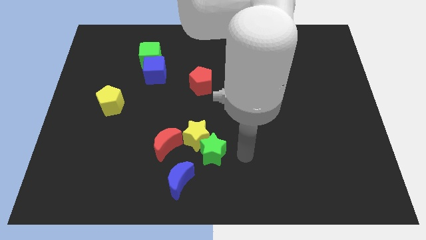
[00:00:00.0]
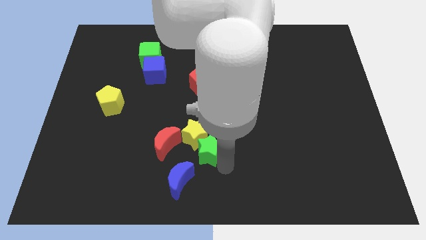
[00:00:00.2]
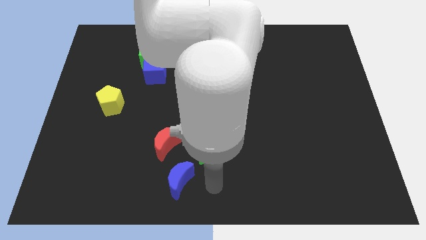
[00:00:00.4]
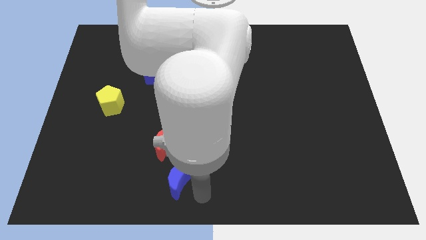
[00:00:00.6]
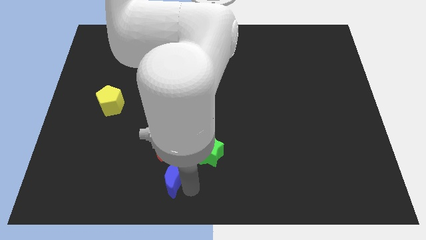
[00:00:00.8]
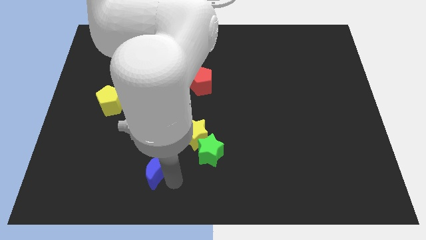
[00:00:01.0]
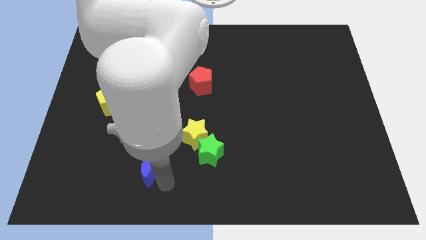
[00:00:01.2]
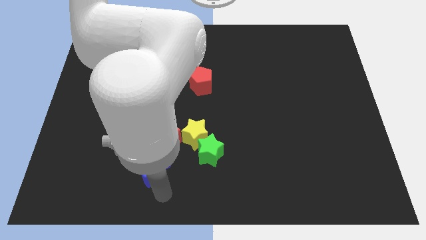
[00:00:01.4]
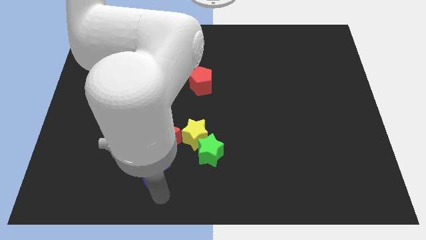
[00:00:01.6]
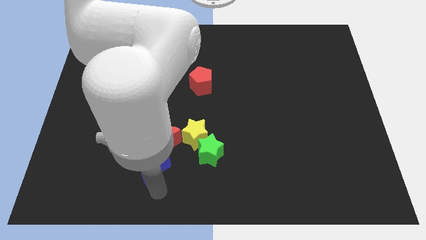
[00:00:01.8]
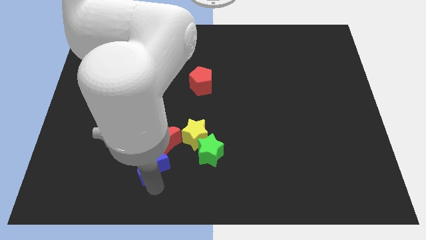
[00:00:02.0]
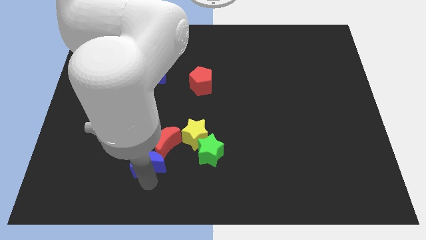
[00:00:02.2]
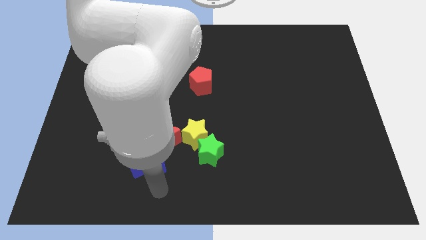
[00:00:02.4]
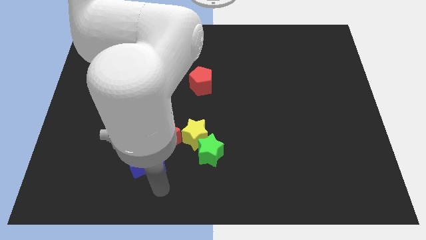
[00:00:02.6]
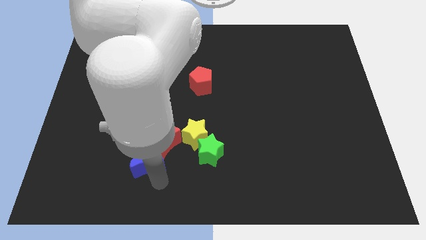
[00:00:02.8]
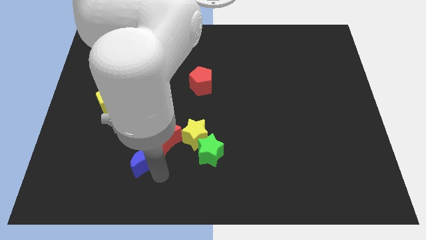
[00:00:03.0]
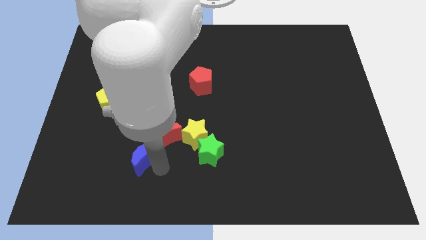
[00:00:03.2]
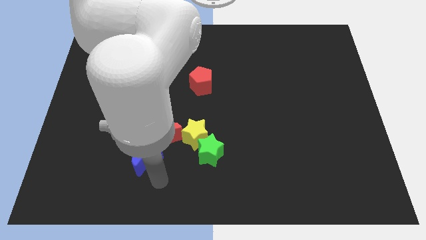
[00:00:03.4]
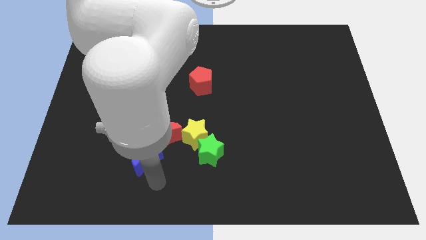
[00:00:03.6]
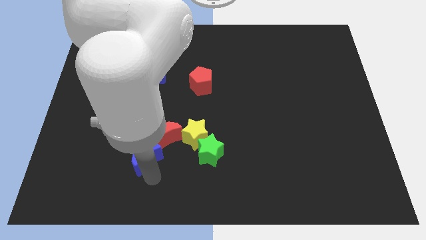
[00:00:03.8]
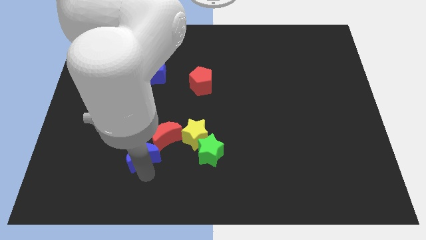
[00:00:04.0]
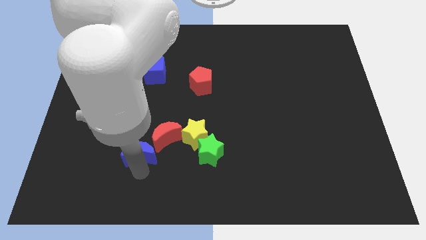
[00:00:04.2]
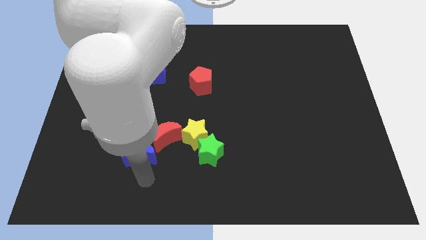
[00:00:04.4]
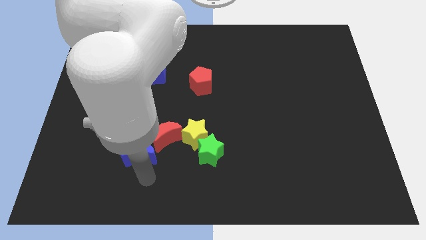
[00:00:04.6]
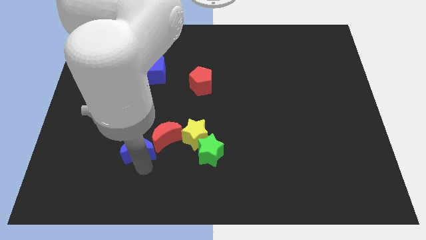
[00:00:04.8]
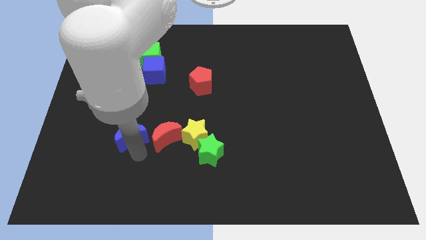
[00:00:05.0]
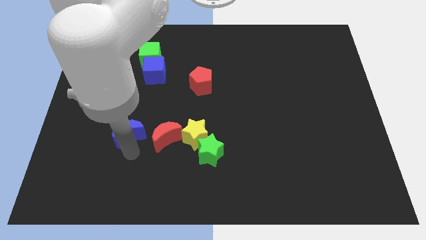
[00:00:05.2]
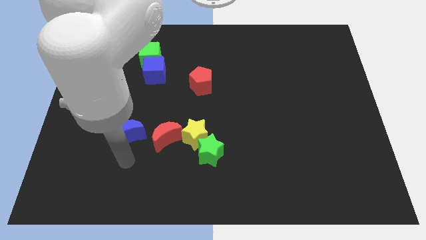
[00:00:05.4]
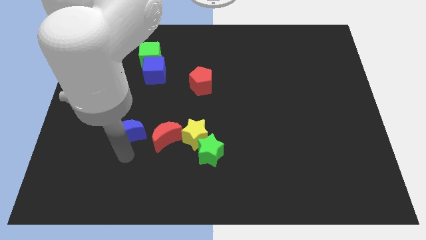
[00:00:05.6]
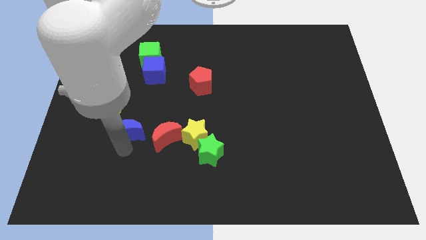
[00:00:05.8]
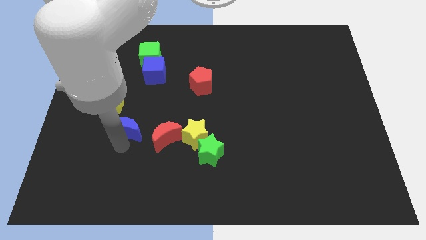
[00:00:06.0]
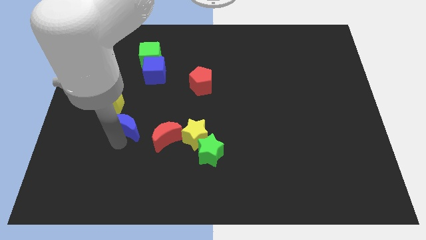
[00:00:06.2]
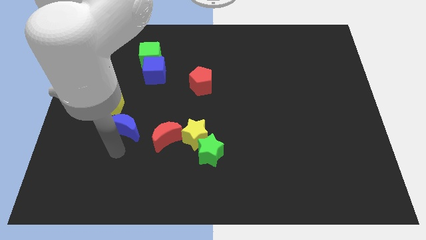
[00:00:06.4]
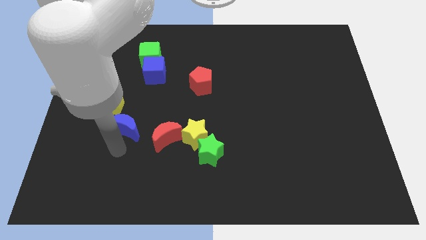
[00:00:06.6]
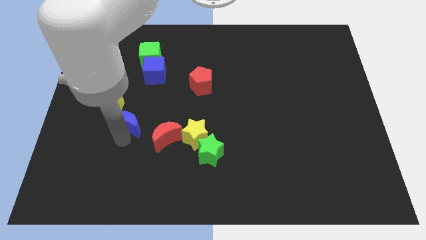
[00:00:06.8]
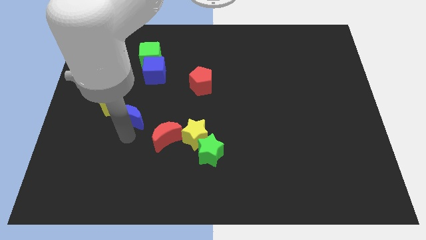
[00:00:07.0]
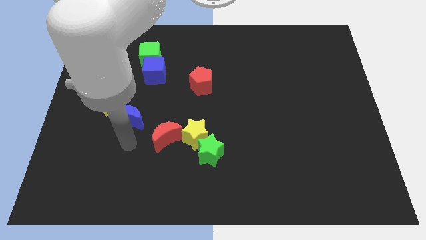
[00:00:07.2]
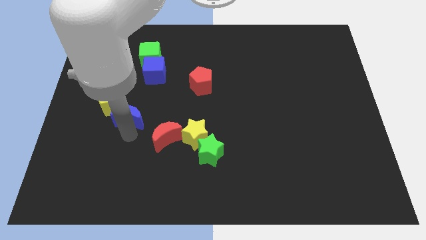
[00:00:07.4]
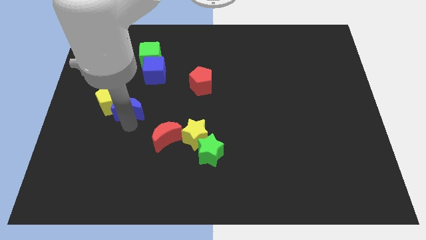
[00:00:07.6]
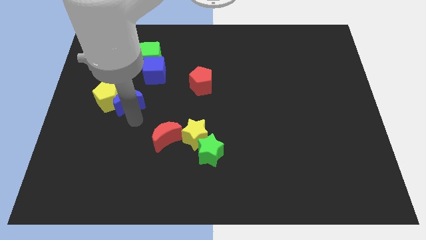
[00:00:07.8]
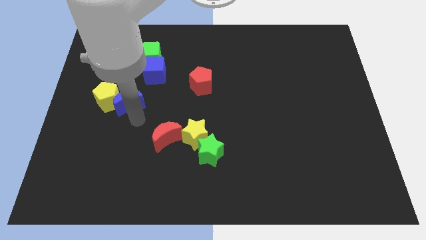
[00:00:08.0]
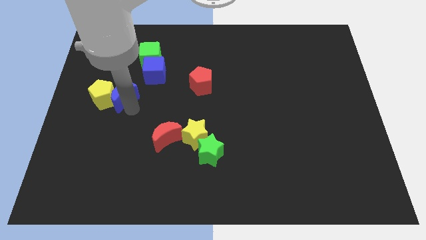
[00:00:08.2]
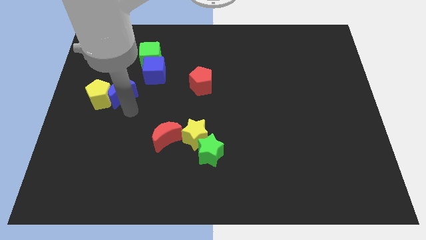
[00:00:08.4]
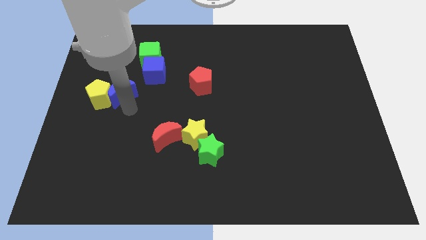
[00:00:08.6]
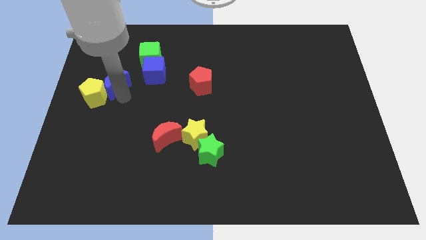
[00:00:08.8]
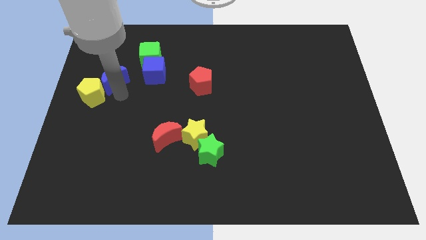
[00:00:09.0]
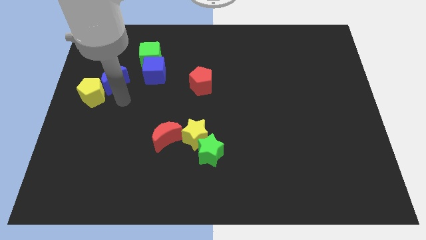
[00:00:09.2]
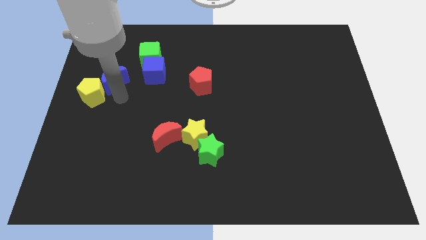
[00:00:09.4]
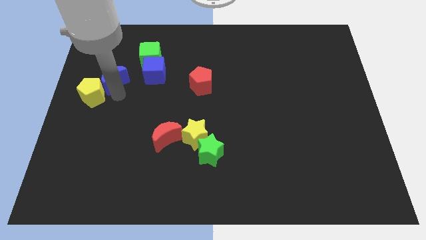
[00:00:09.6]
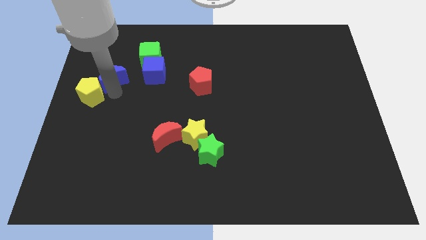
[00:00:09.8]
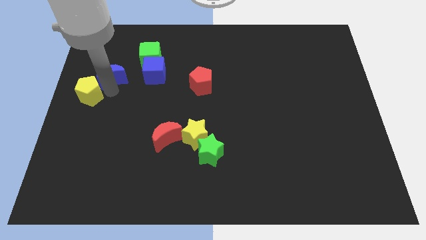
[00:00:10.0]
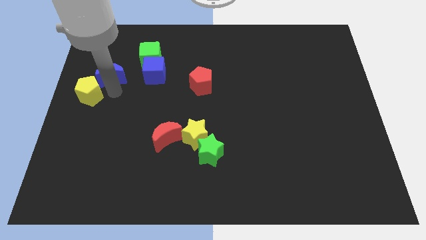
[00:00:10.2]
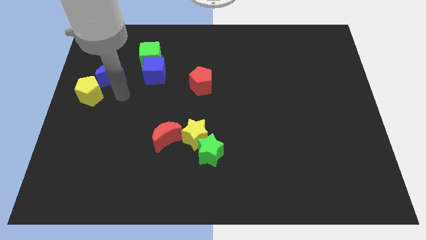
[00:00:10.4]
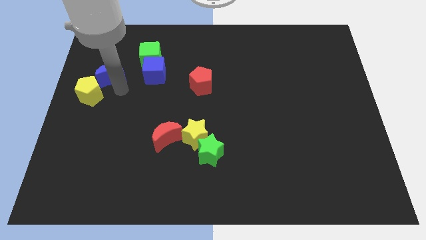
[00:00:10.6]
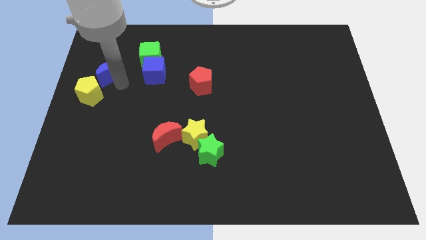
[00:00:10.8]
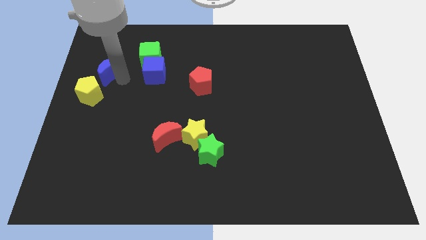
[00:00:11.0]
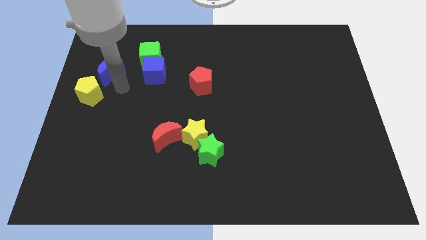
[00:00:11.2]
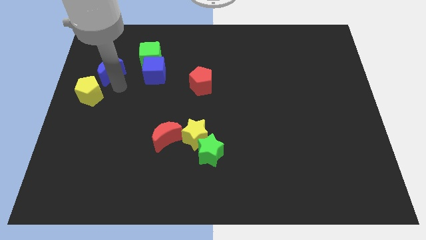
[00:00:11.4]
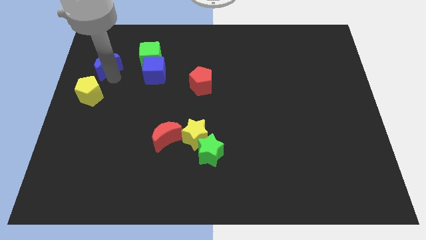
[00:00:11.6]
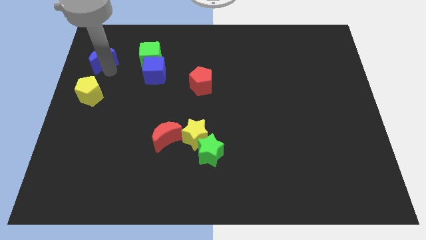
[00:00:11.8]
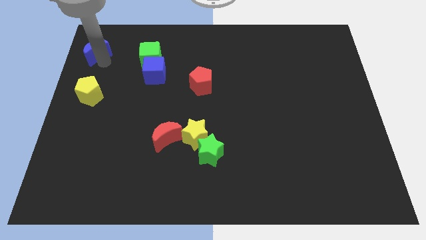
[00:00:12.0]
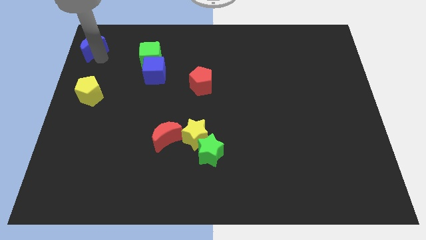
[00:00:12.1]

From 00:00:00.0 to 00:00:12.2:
push the blue moon to the top left corner
